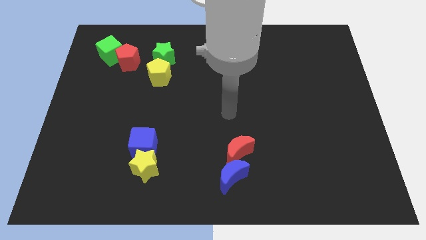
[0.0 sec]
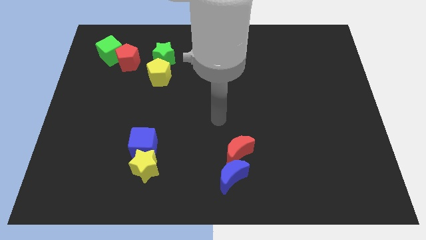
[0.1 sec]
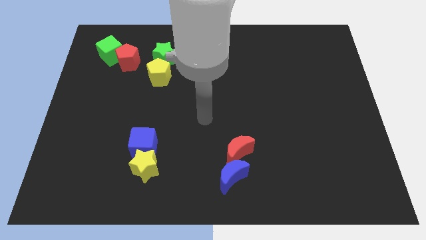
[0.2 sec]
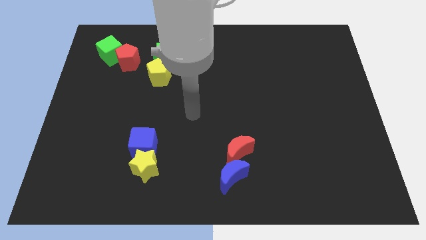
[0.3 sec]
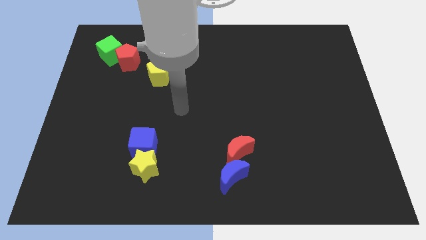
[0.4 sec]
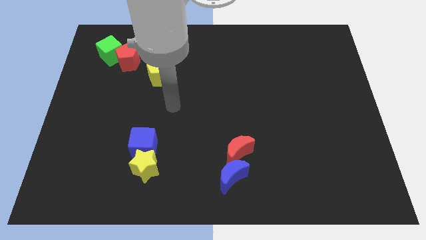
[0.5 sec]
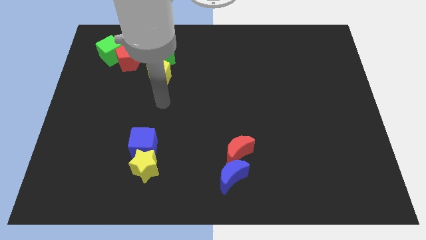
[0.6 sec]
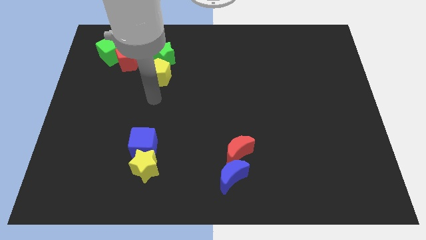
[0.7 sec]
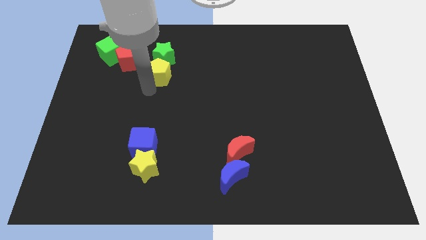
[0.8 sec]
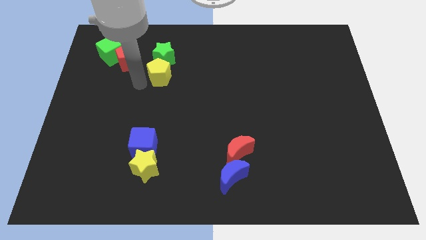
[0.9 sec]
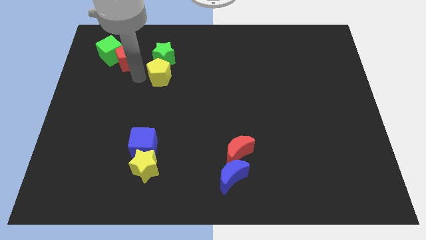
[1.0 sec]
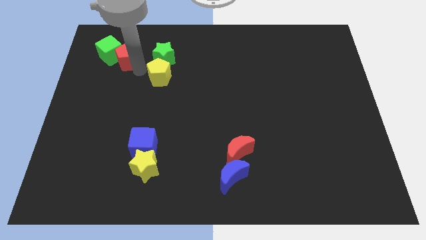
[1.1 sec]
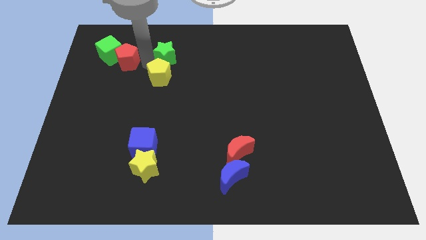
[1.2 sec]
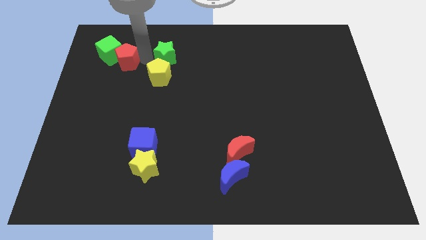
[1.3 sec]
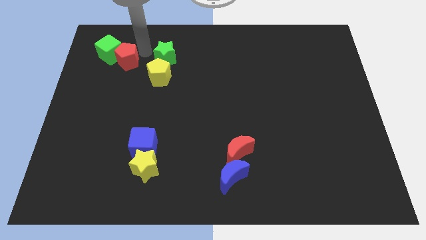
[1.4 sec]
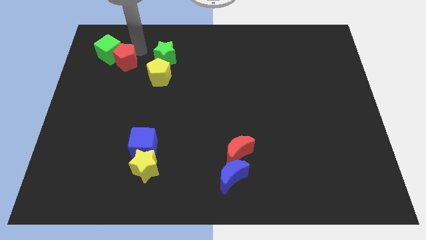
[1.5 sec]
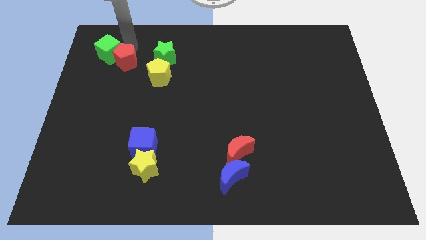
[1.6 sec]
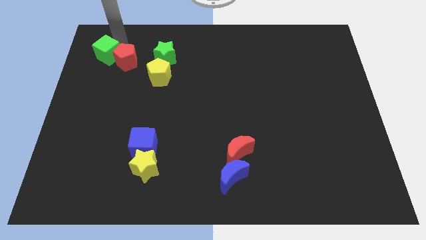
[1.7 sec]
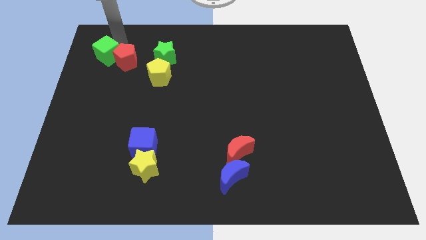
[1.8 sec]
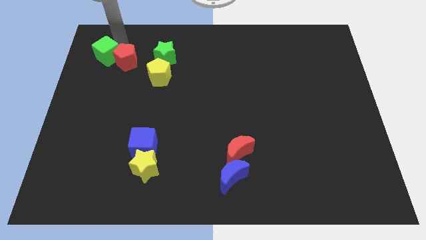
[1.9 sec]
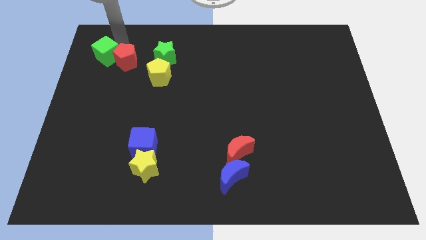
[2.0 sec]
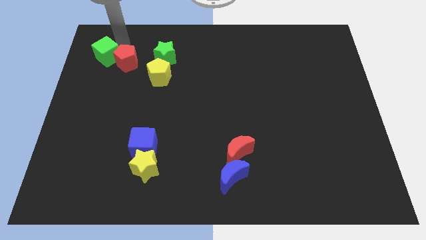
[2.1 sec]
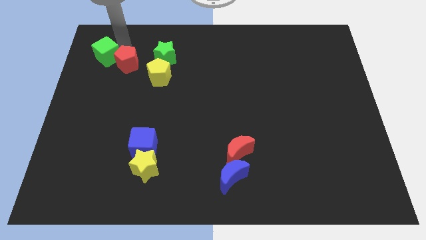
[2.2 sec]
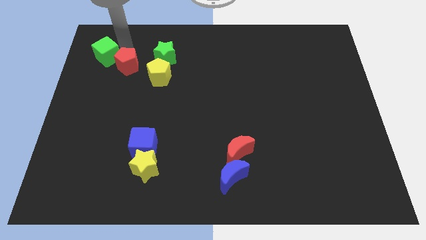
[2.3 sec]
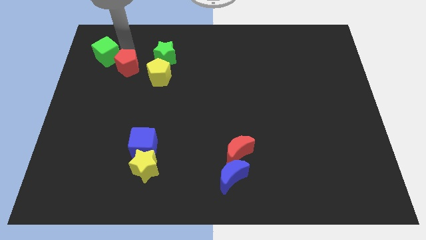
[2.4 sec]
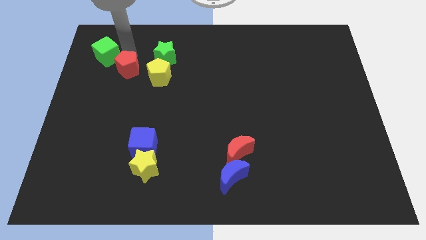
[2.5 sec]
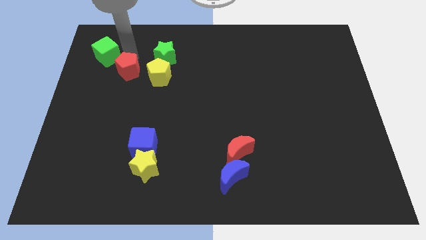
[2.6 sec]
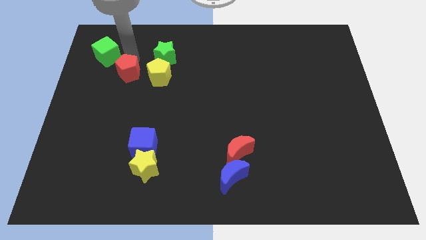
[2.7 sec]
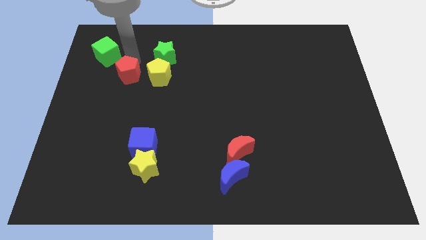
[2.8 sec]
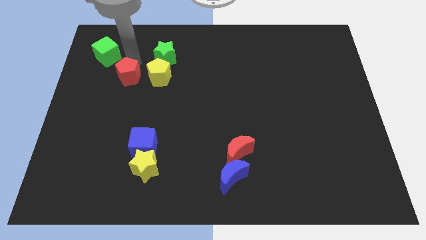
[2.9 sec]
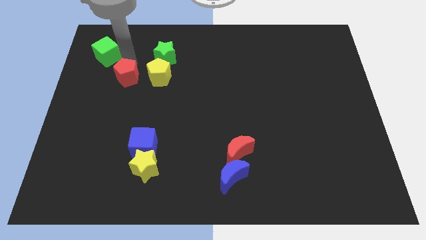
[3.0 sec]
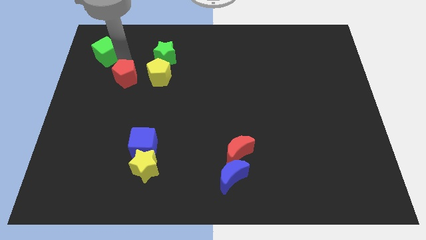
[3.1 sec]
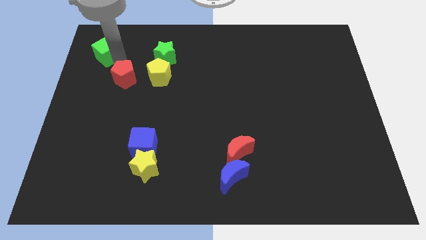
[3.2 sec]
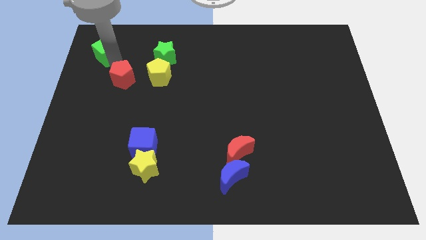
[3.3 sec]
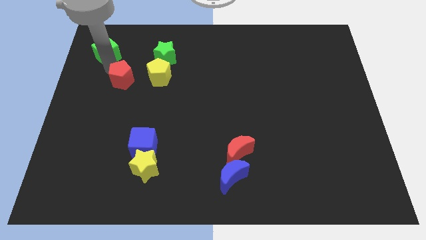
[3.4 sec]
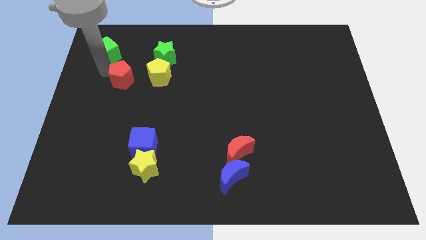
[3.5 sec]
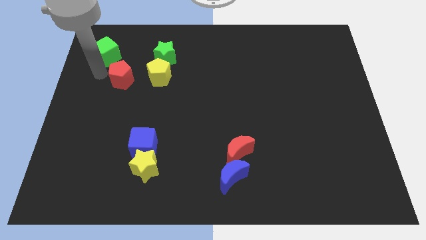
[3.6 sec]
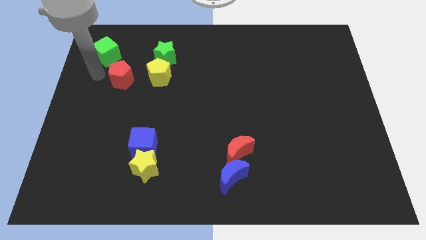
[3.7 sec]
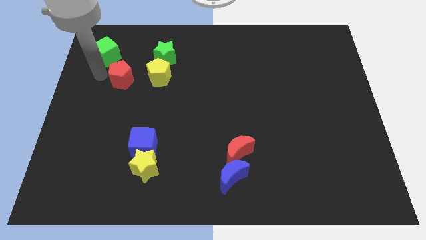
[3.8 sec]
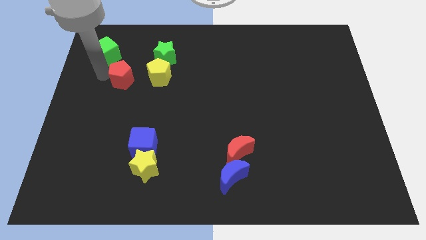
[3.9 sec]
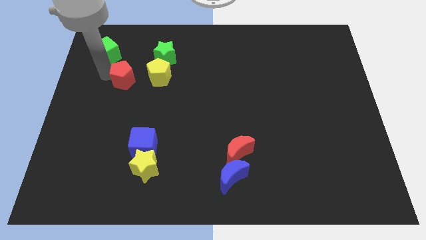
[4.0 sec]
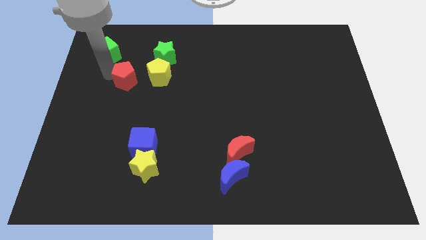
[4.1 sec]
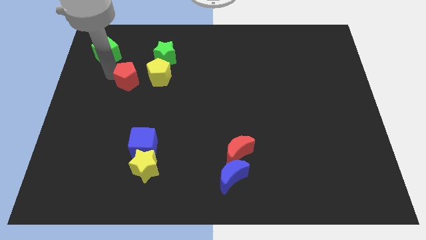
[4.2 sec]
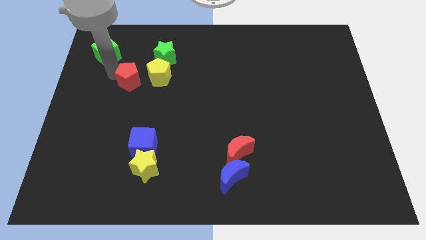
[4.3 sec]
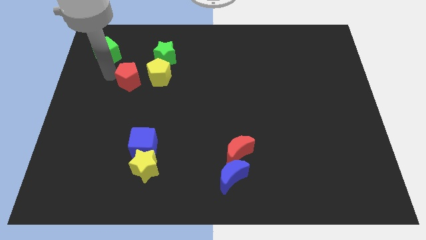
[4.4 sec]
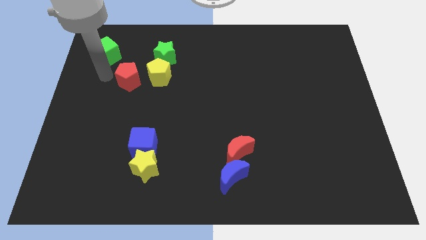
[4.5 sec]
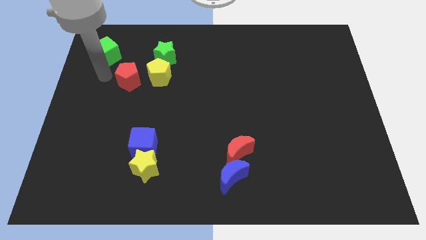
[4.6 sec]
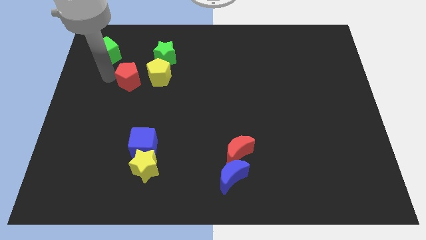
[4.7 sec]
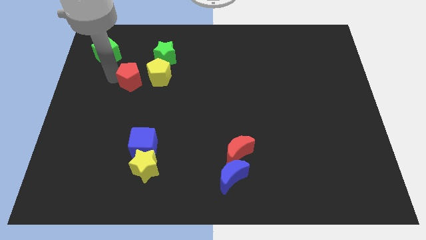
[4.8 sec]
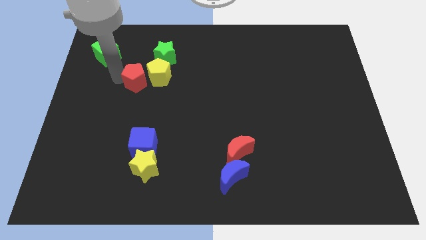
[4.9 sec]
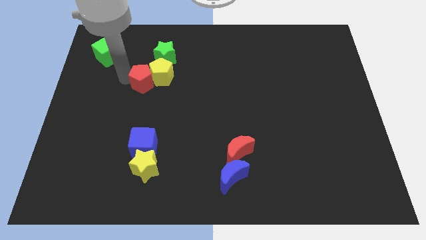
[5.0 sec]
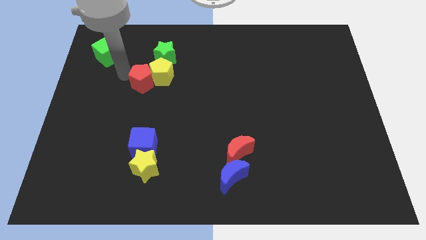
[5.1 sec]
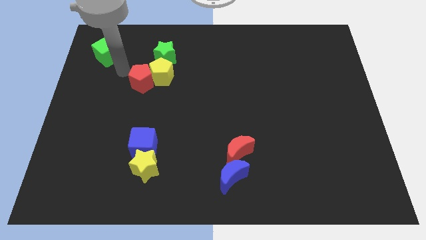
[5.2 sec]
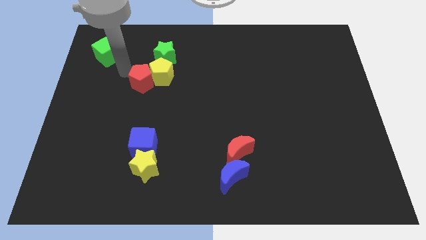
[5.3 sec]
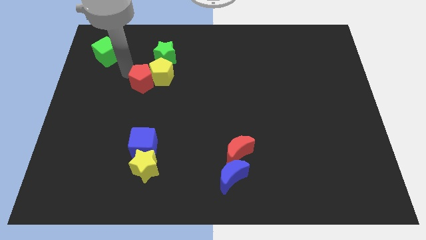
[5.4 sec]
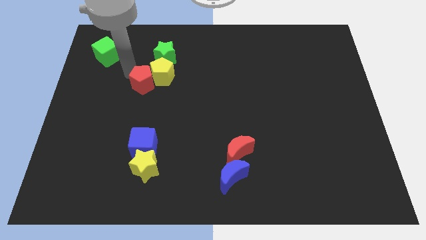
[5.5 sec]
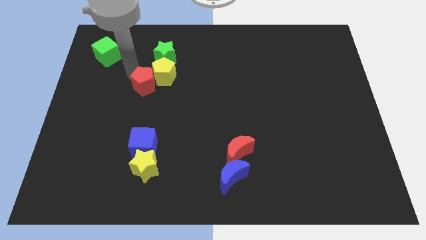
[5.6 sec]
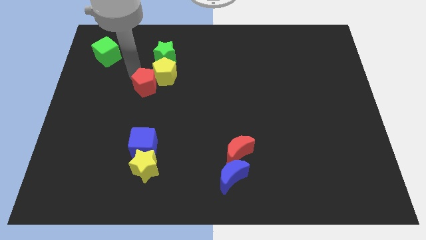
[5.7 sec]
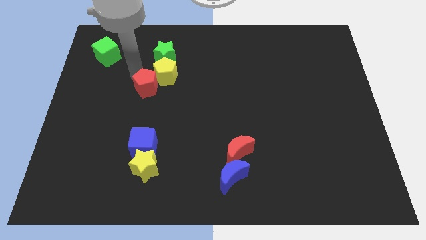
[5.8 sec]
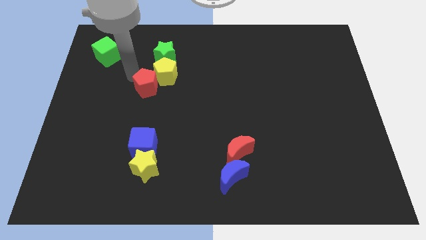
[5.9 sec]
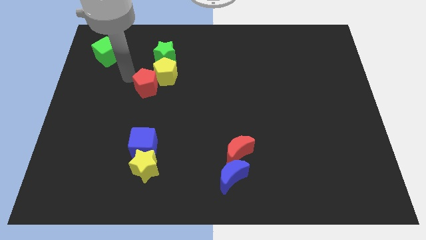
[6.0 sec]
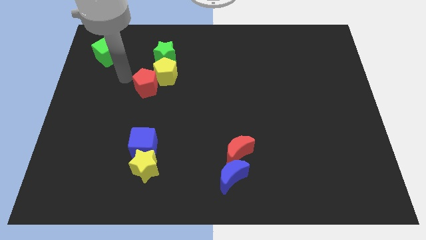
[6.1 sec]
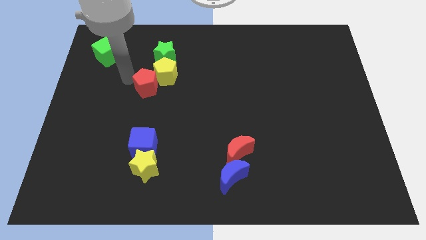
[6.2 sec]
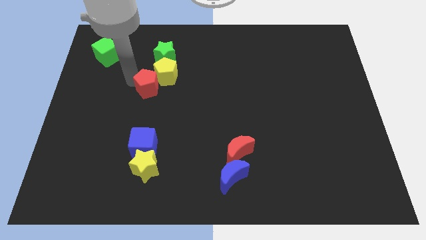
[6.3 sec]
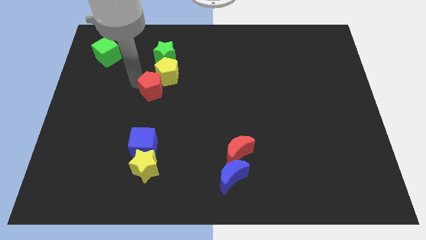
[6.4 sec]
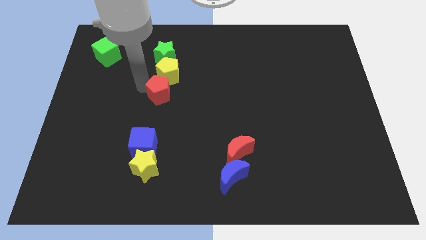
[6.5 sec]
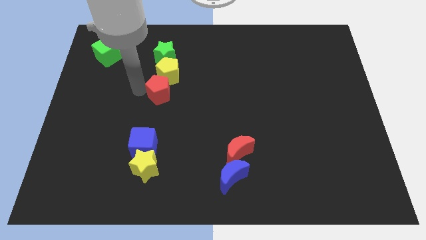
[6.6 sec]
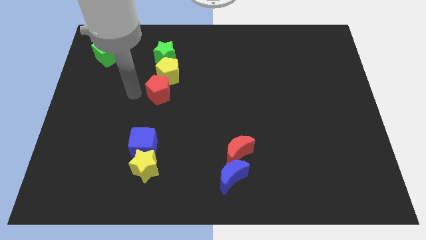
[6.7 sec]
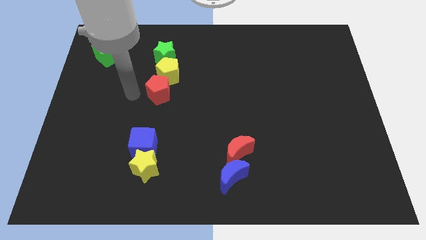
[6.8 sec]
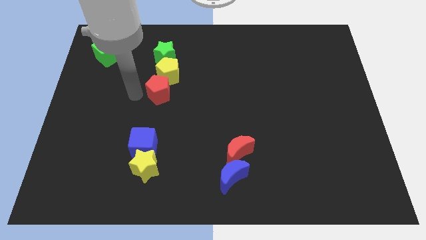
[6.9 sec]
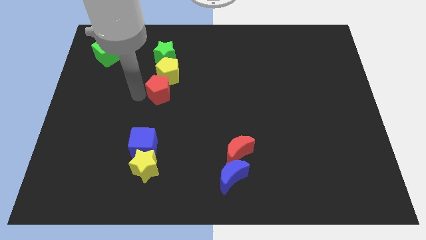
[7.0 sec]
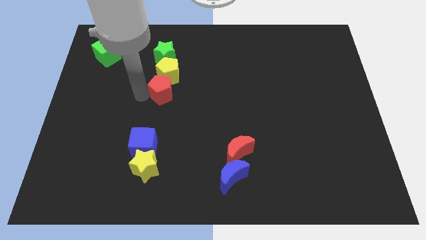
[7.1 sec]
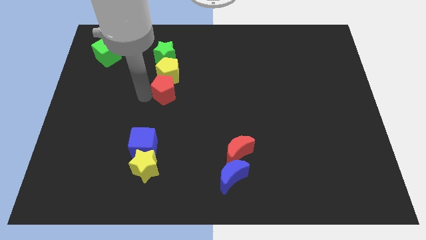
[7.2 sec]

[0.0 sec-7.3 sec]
push the red pentagon diagonally down and to the right of the yellow pentagon
